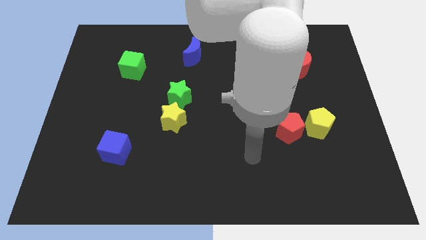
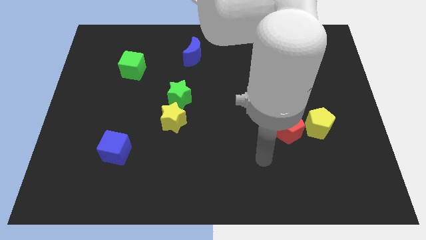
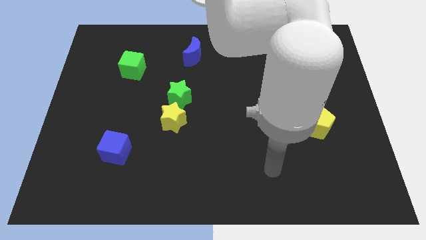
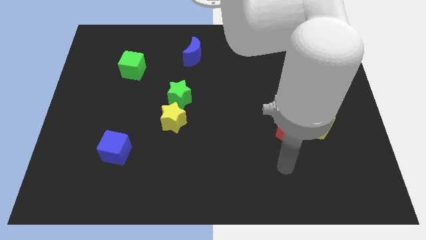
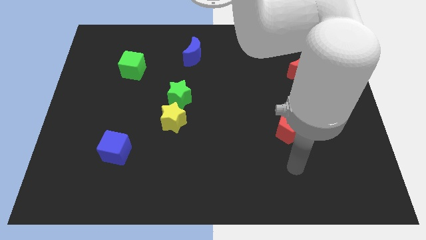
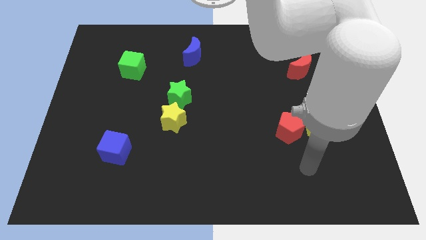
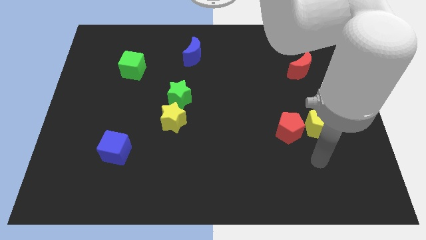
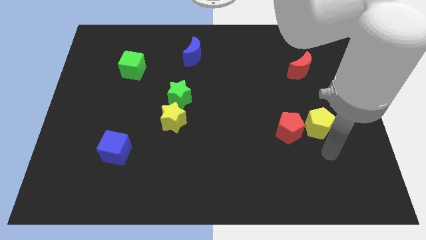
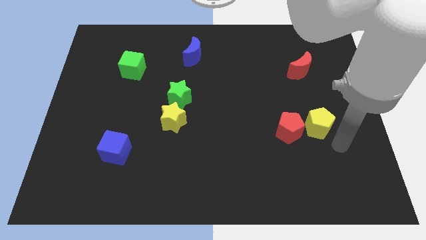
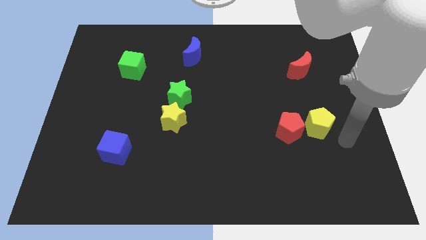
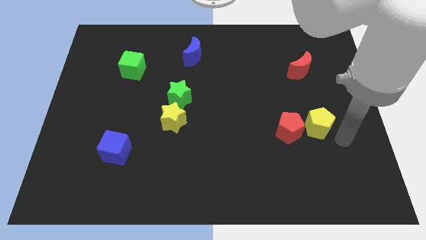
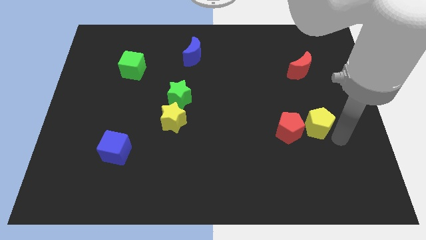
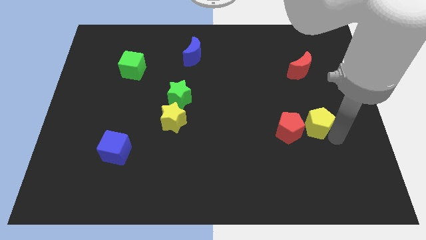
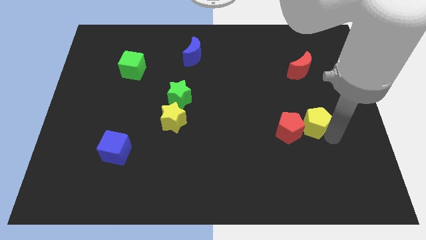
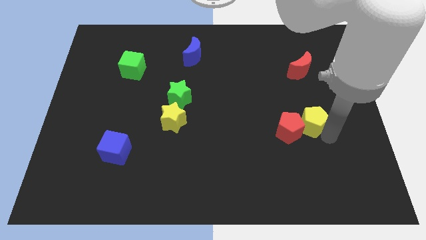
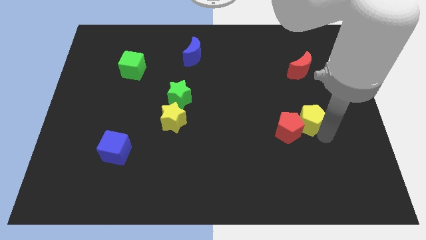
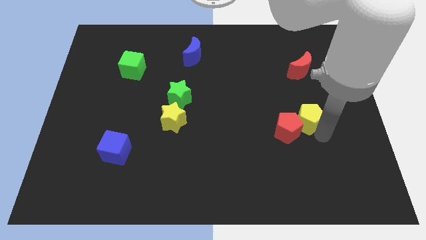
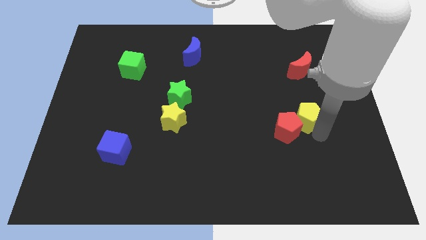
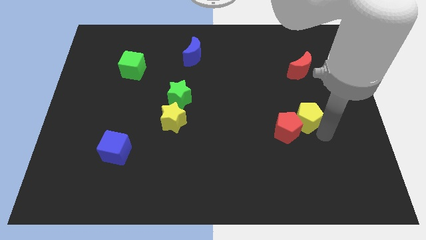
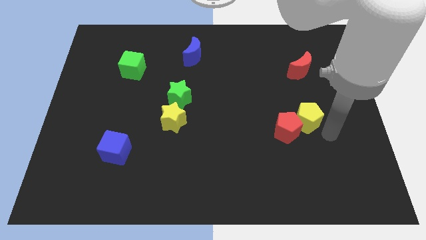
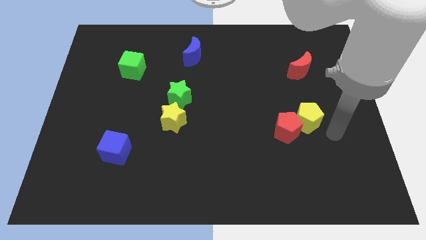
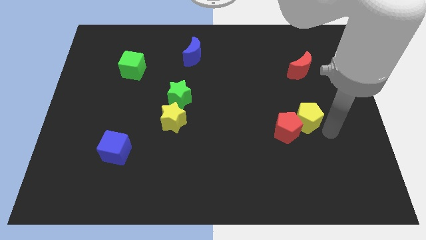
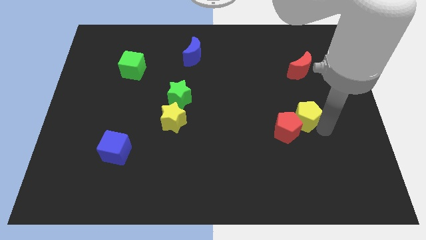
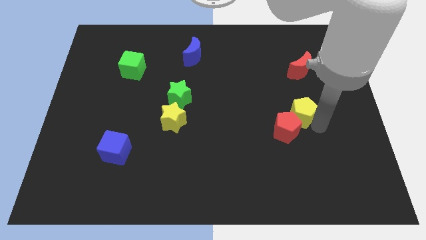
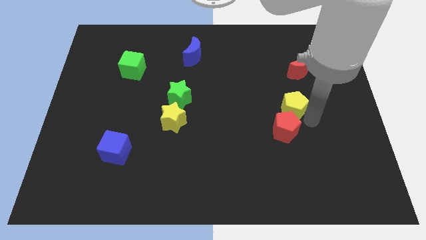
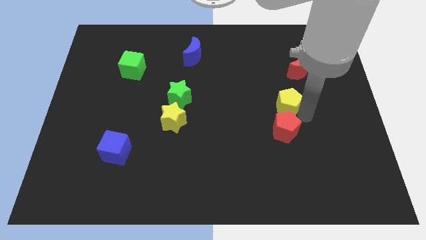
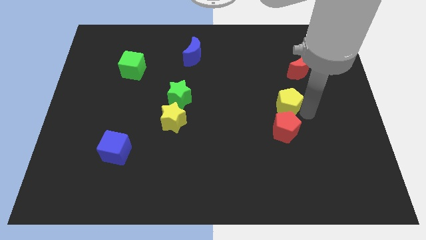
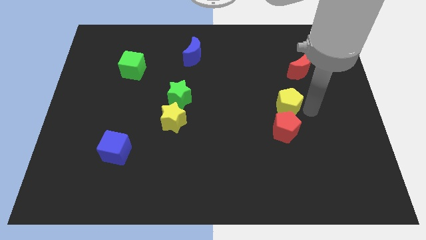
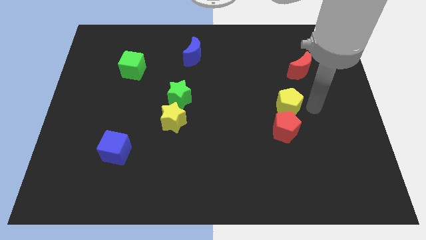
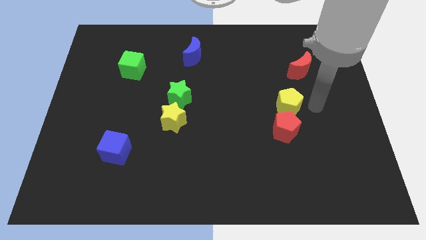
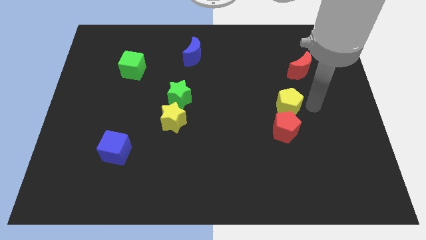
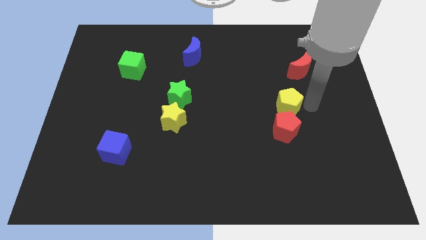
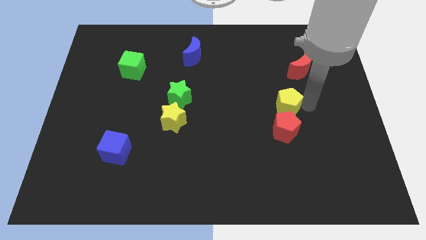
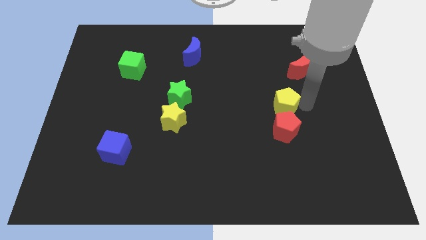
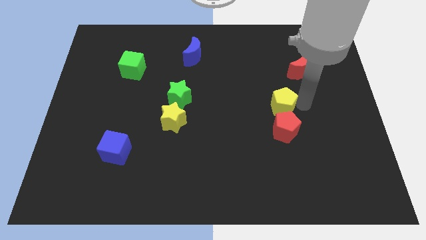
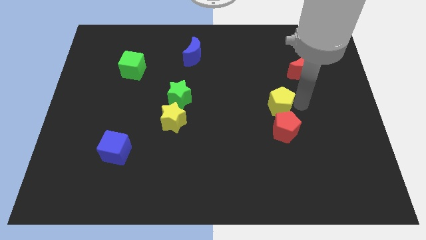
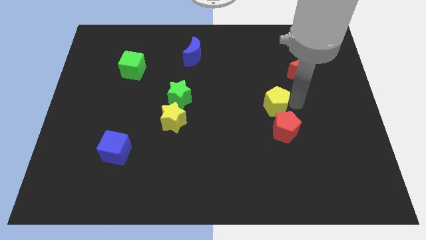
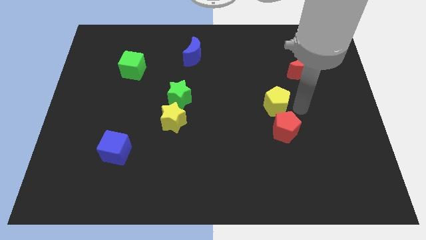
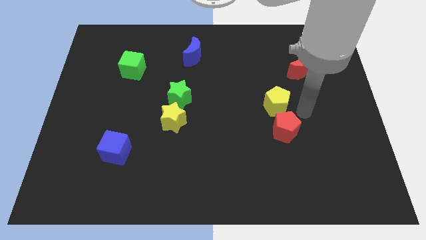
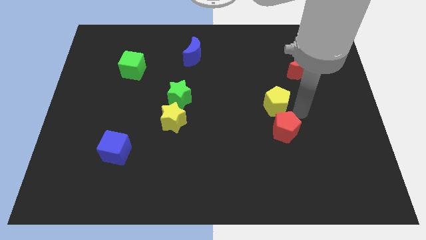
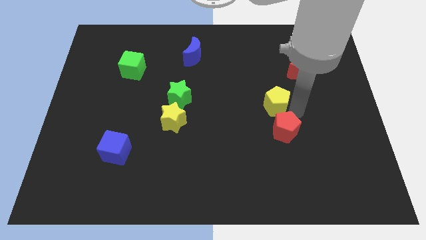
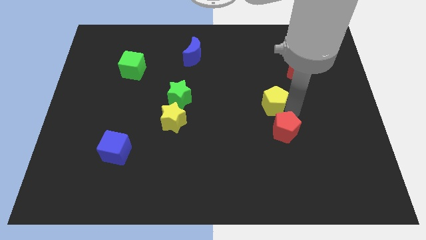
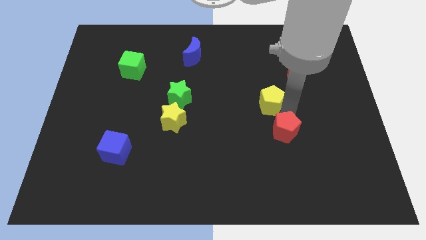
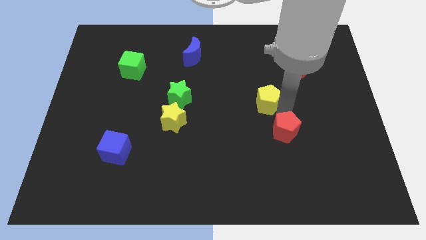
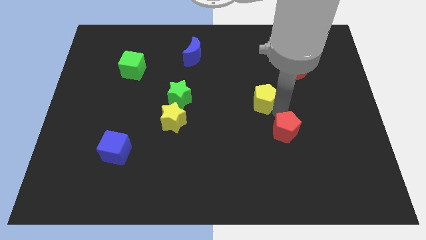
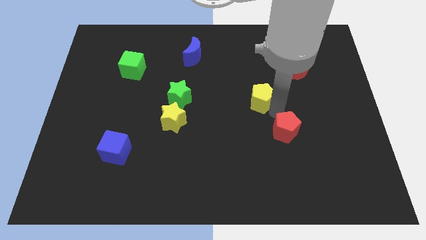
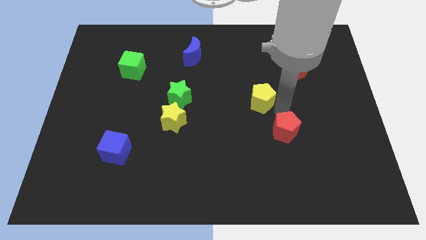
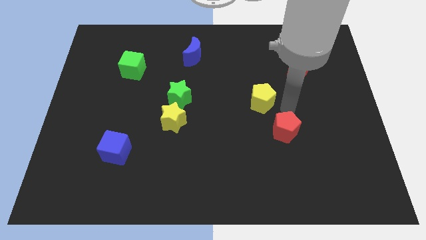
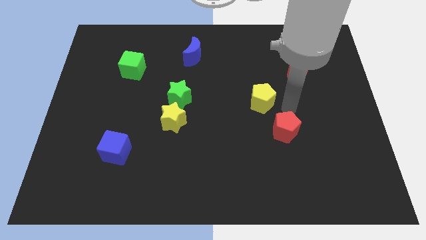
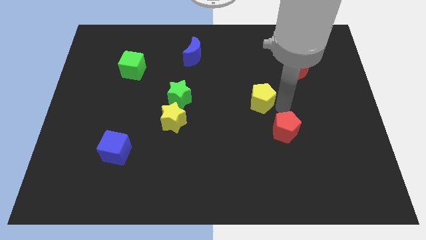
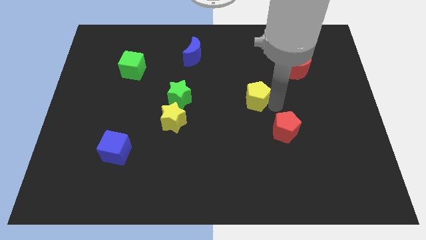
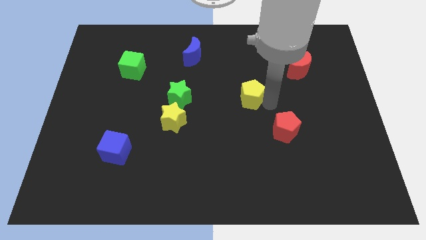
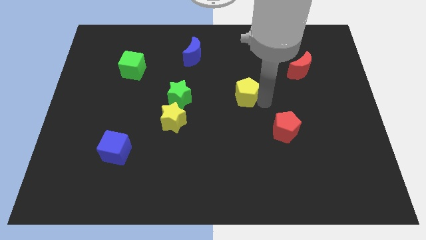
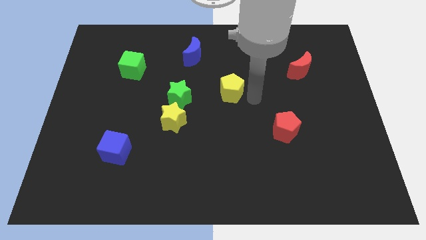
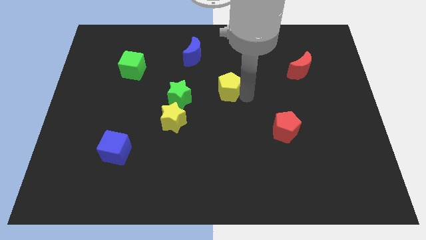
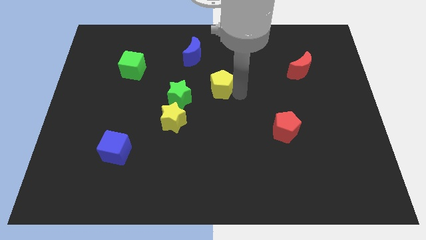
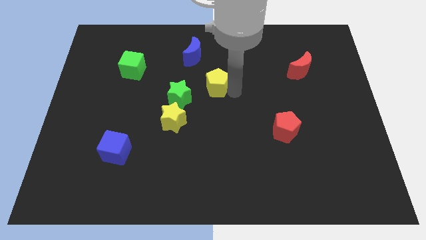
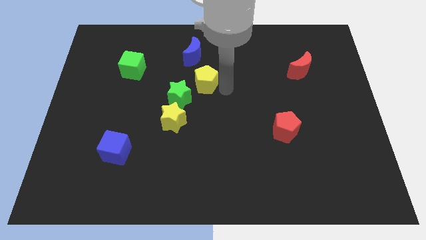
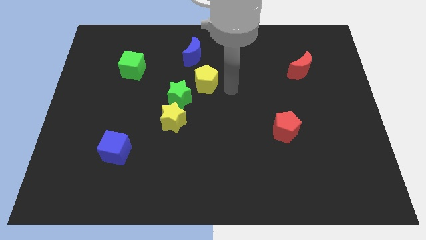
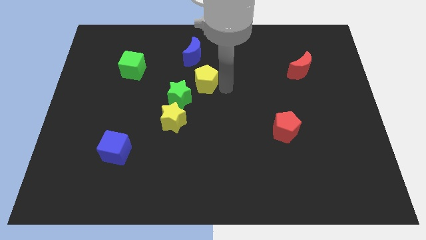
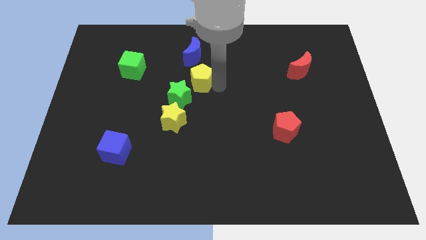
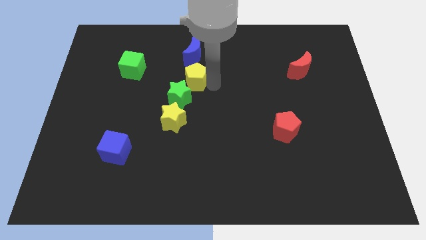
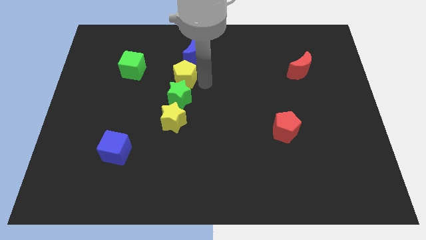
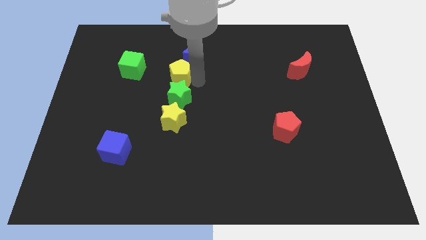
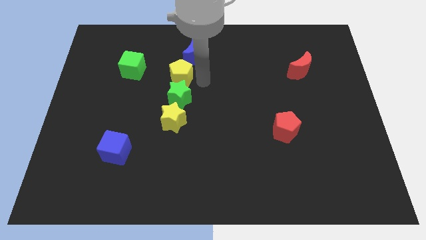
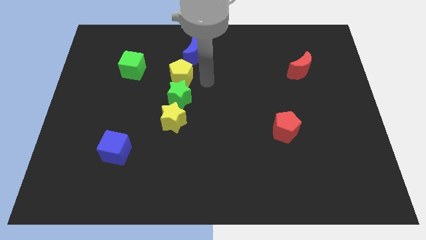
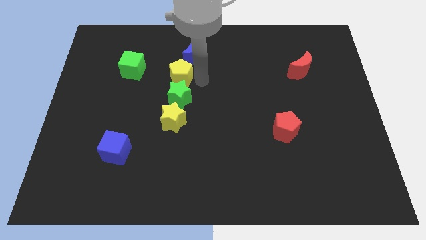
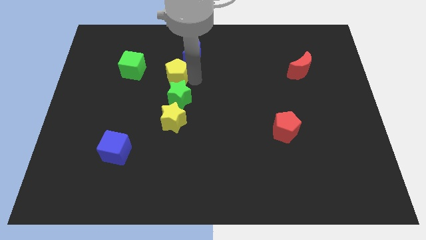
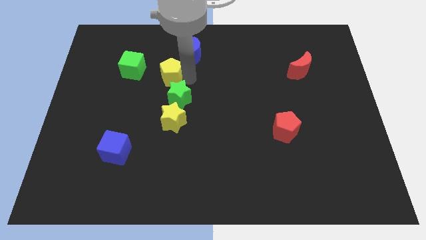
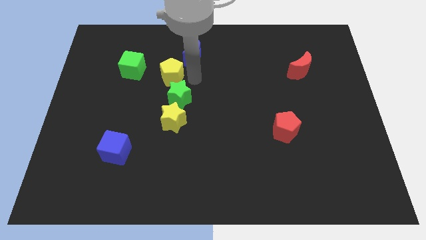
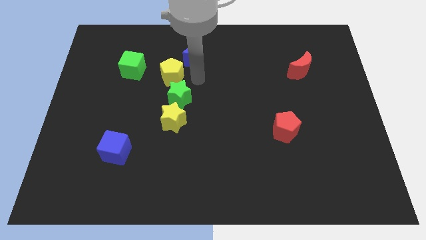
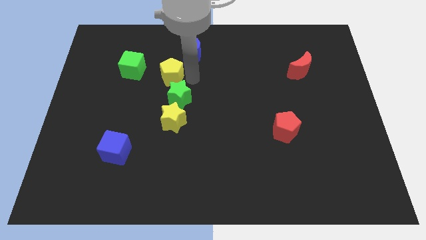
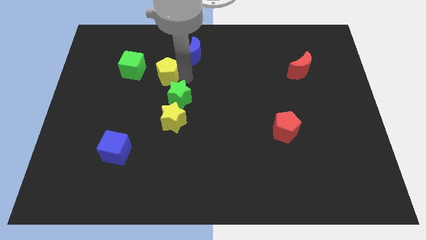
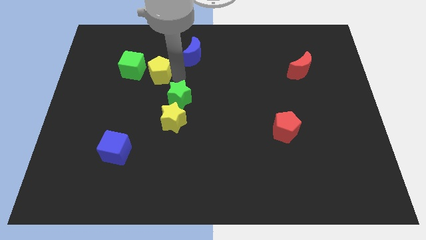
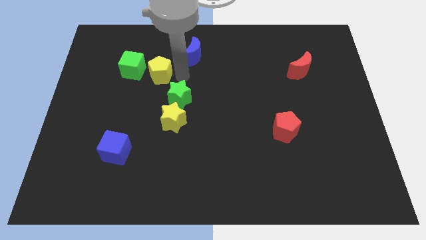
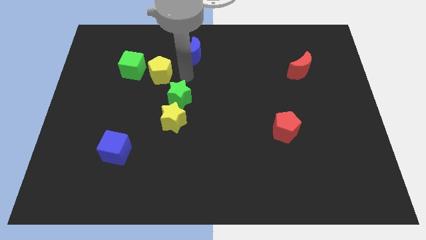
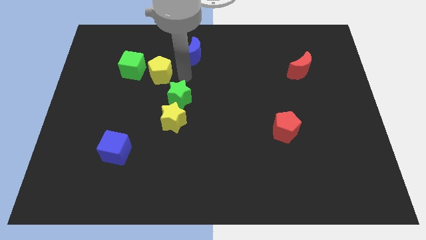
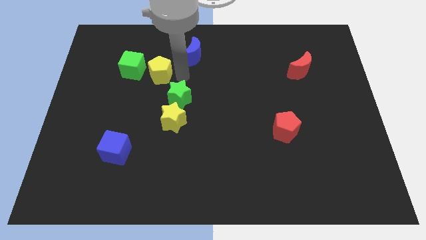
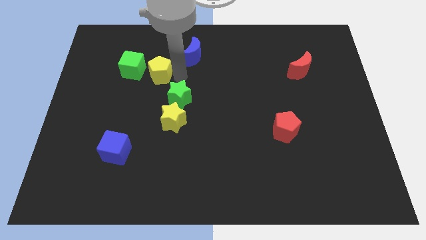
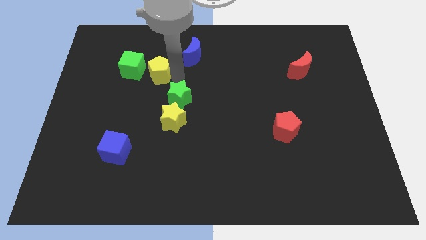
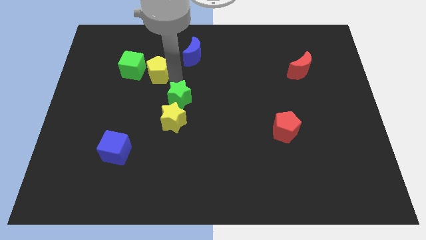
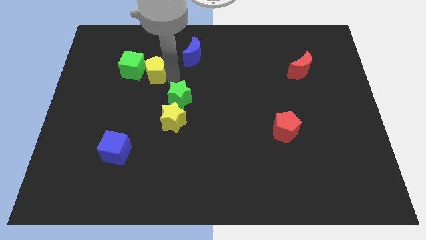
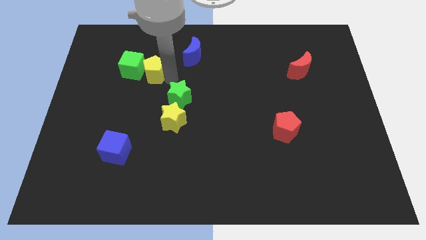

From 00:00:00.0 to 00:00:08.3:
slide the yellow pentagon next to the green cube
